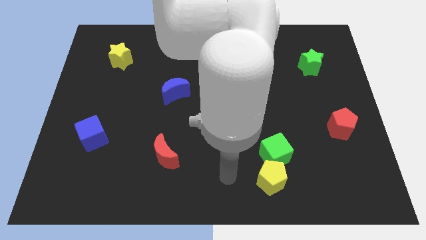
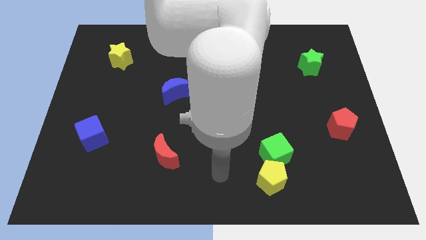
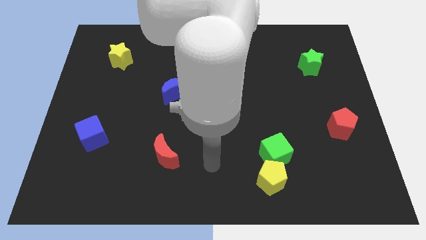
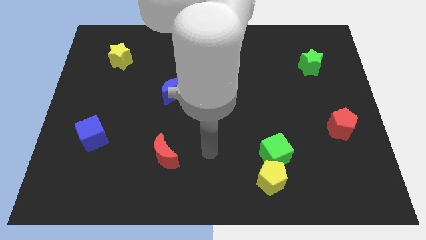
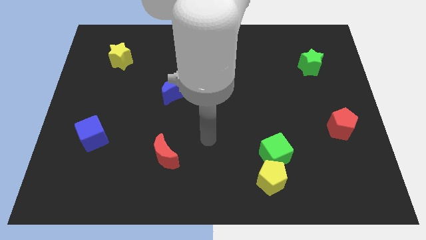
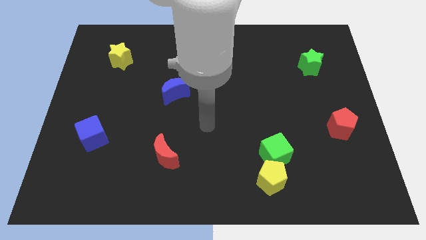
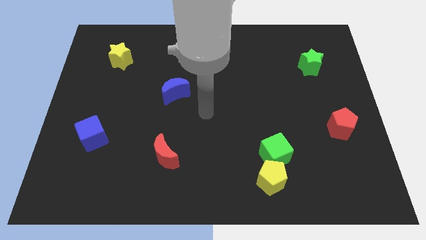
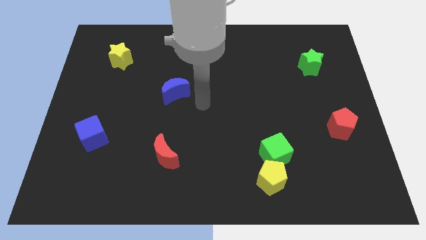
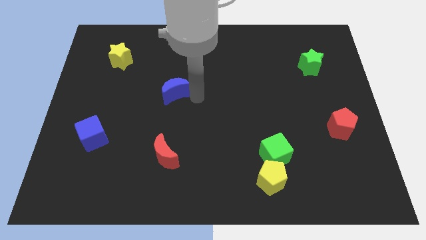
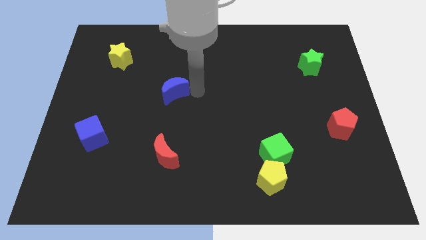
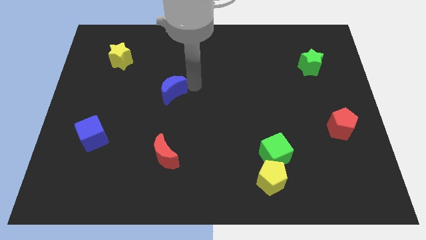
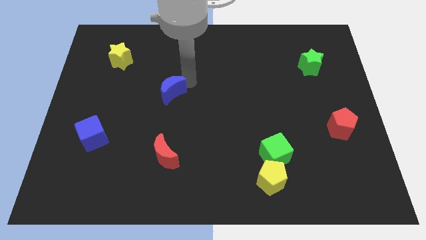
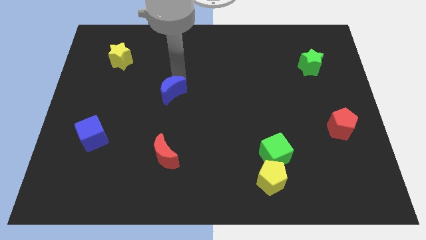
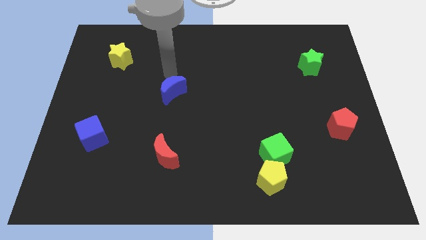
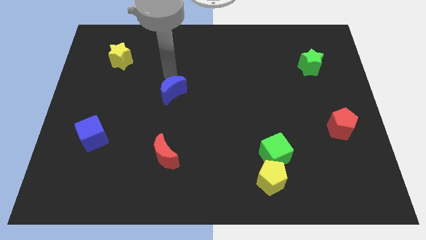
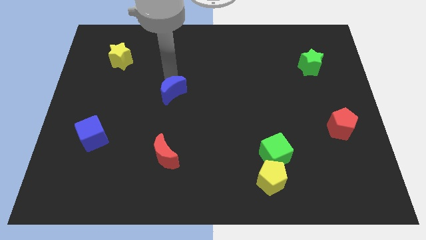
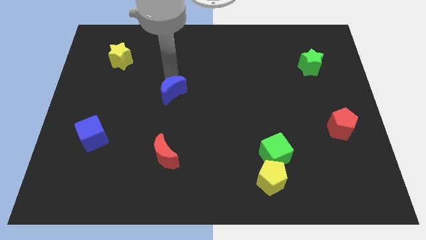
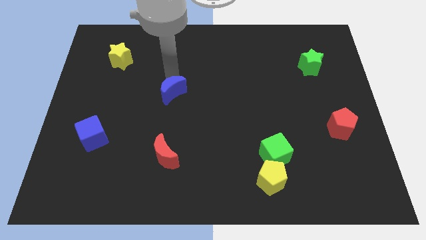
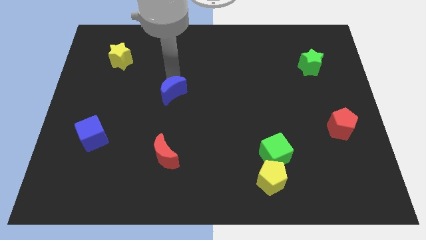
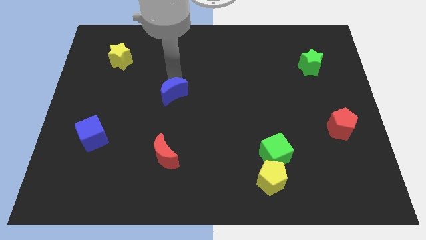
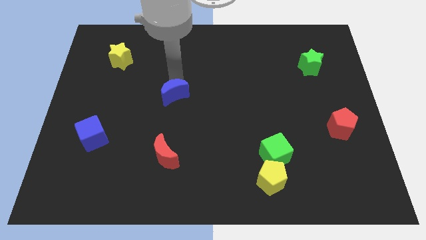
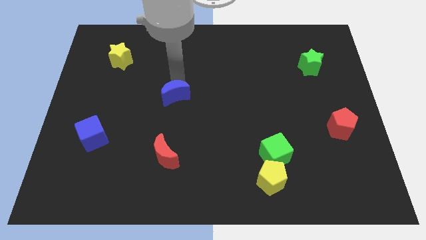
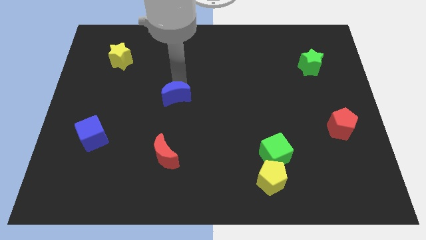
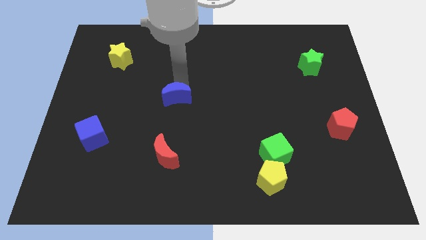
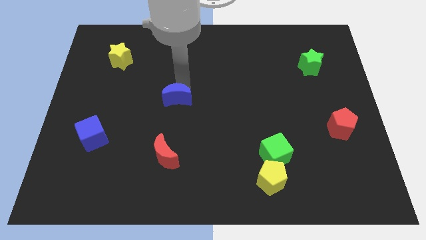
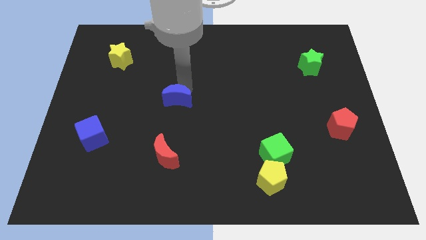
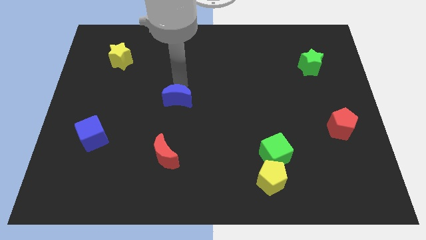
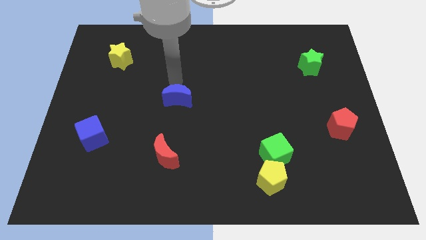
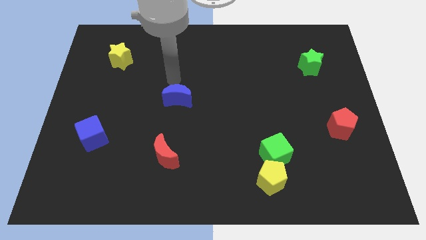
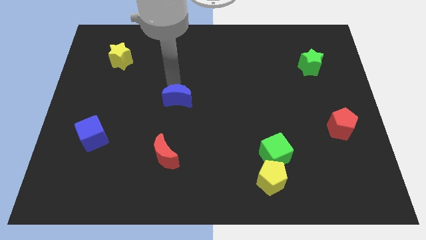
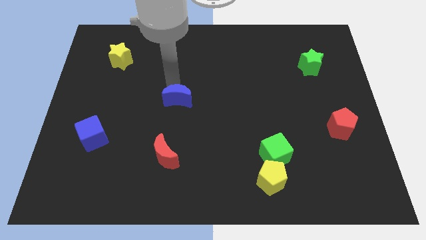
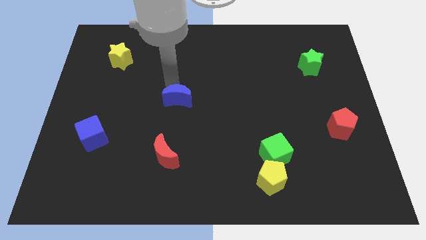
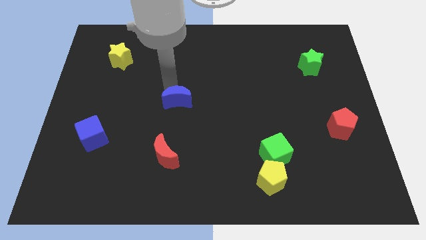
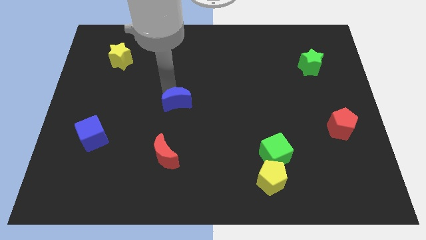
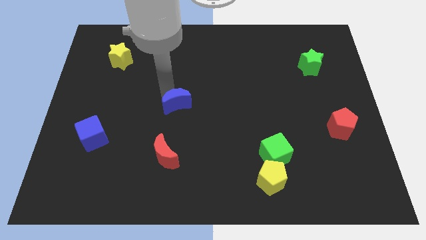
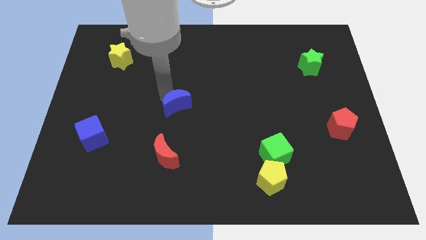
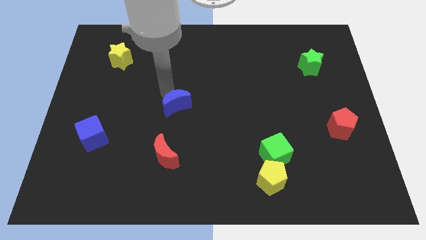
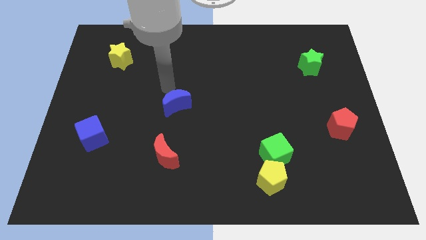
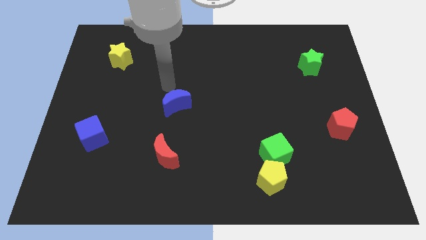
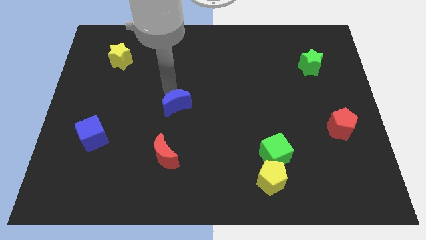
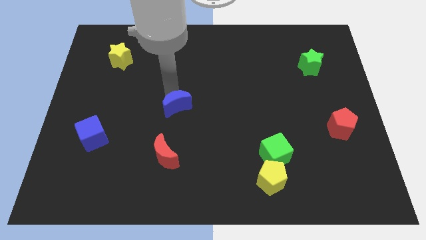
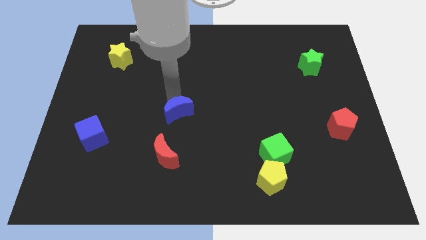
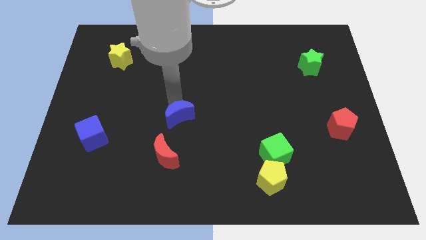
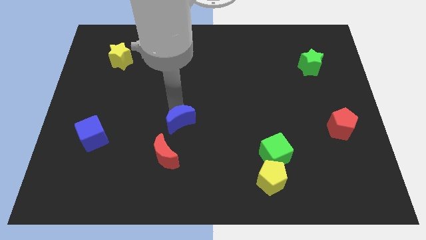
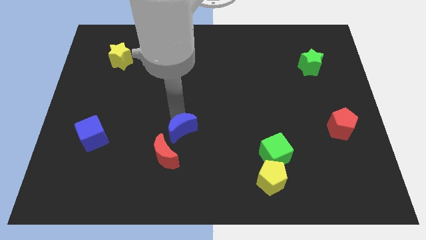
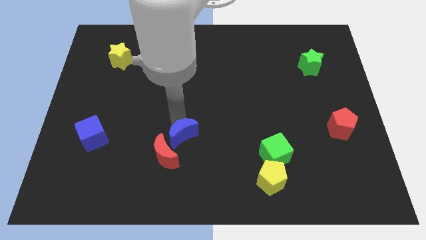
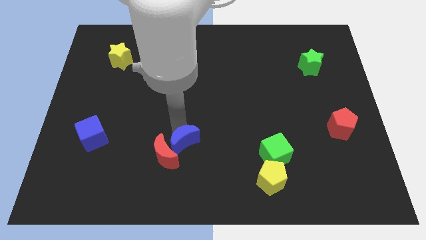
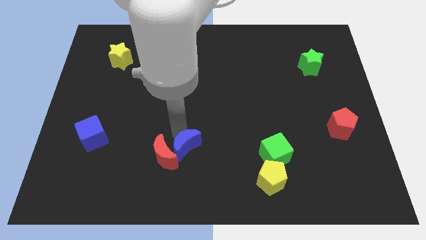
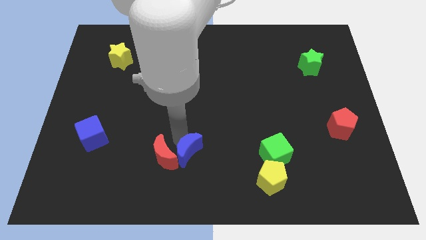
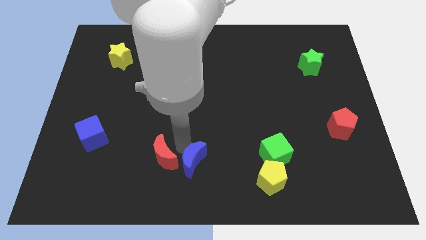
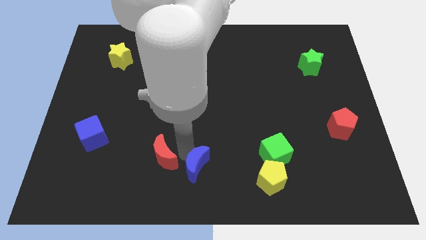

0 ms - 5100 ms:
push the blue moon left of the yellow pentagon

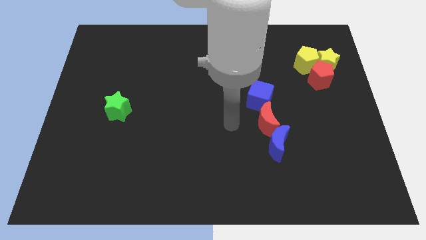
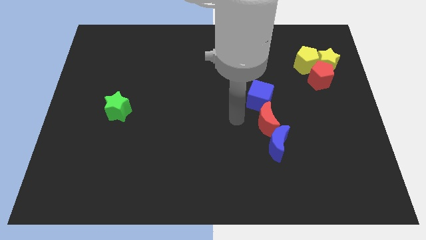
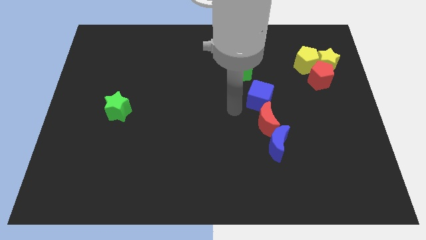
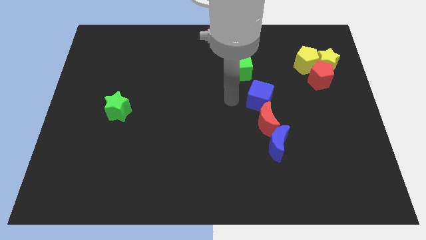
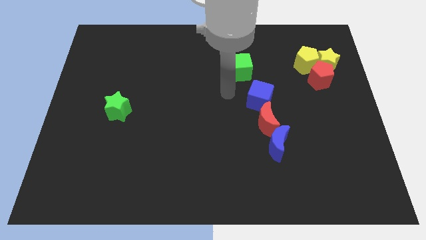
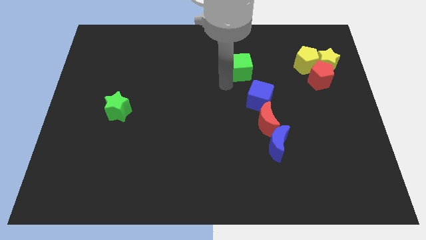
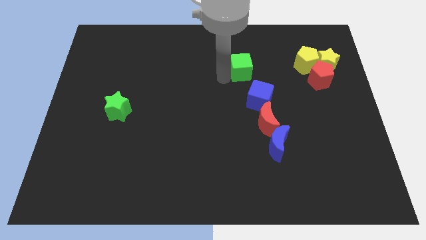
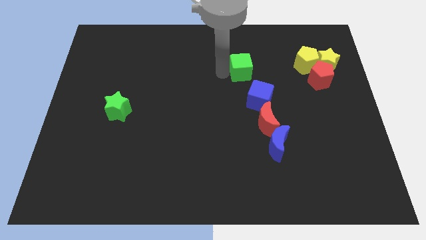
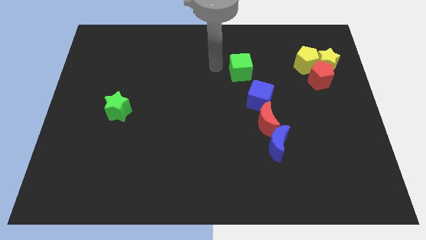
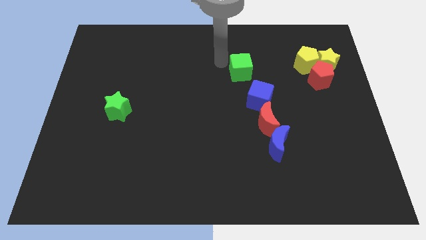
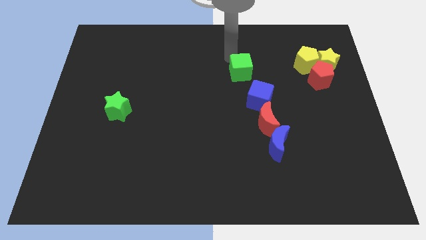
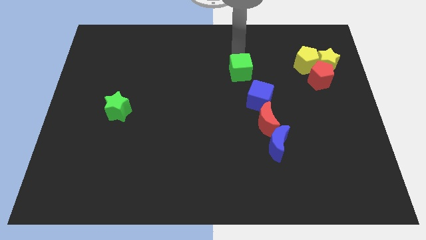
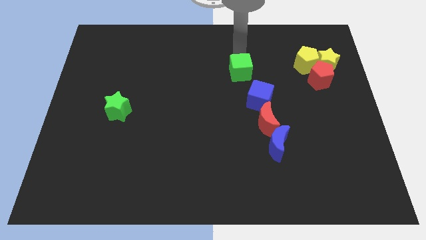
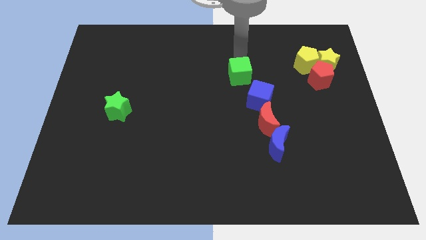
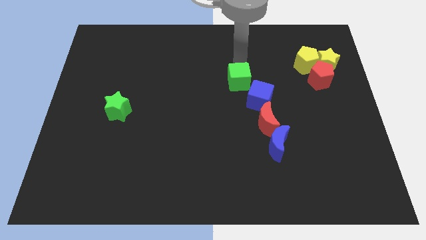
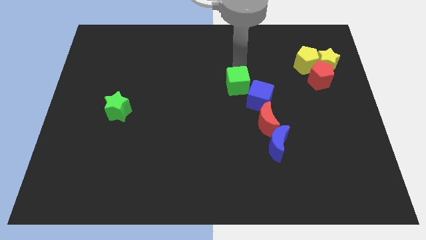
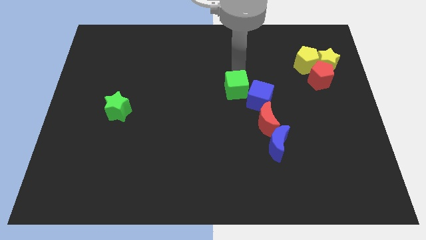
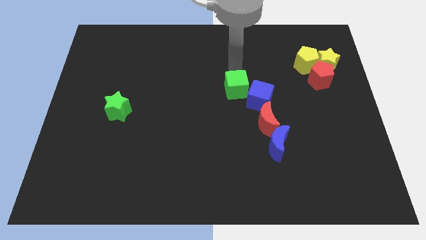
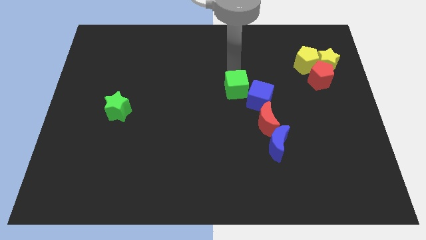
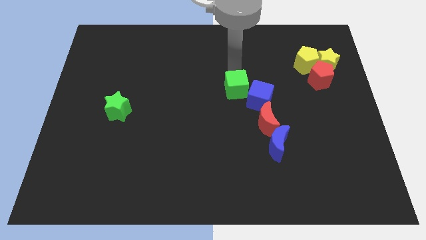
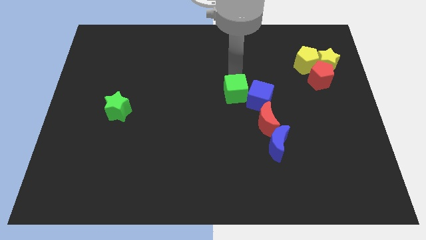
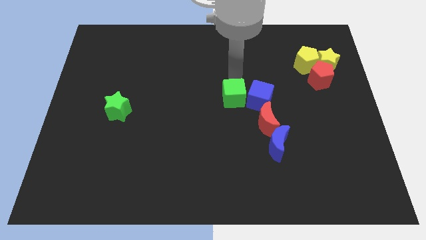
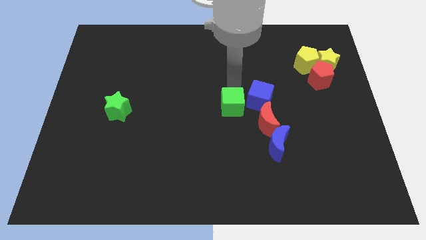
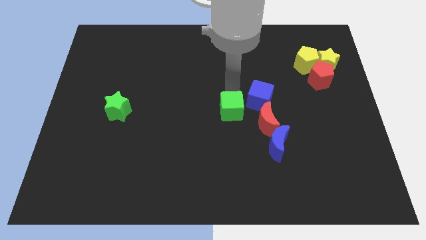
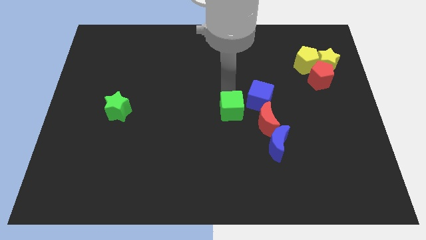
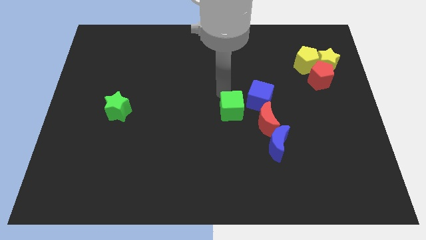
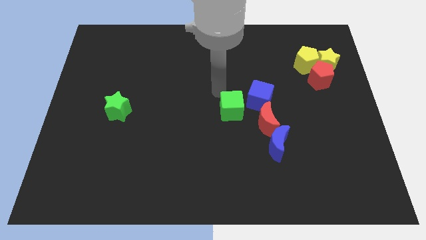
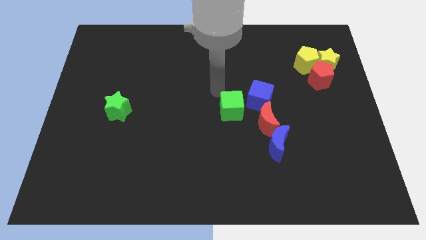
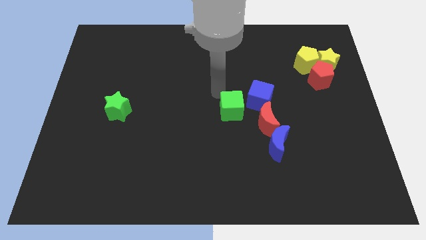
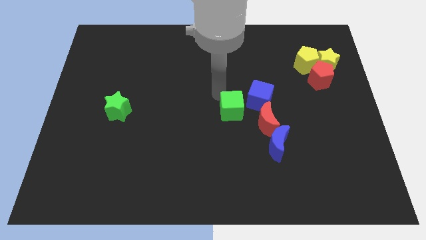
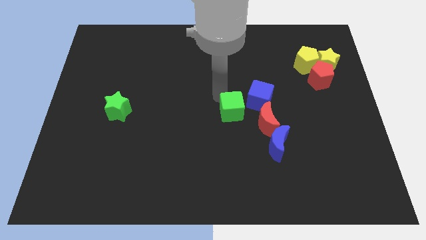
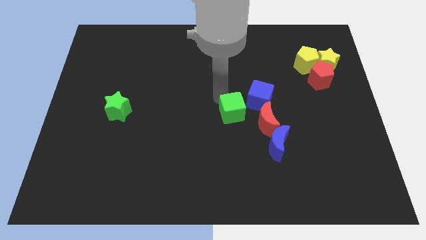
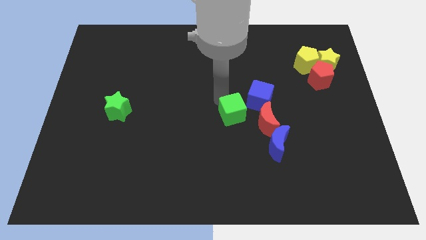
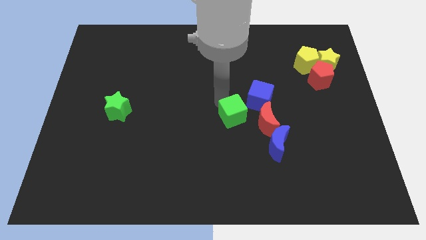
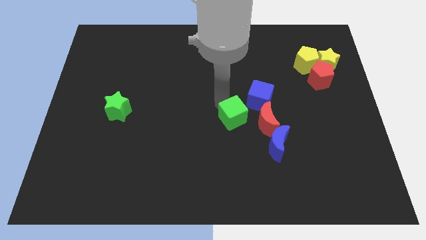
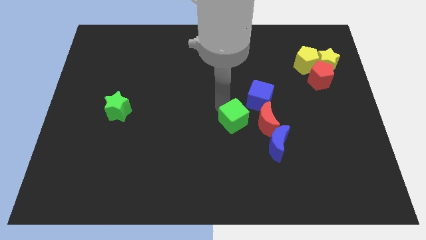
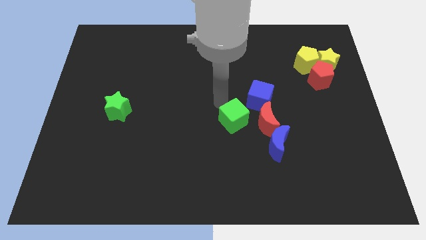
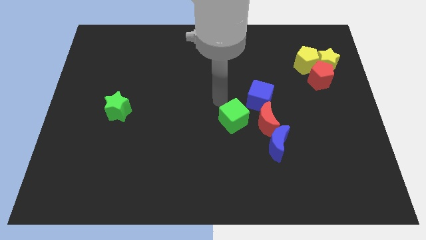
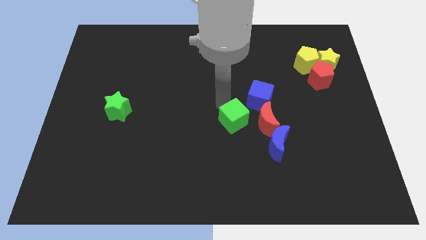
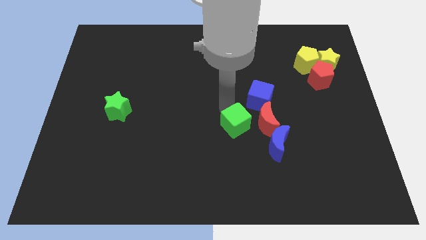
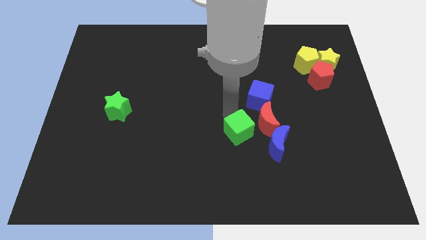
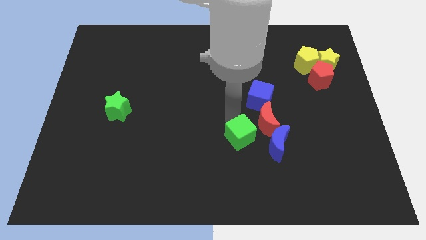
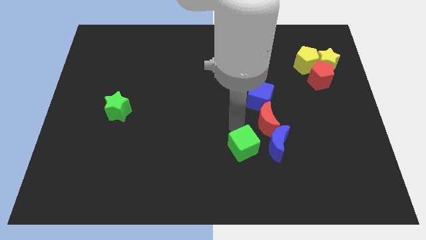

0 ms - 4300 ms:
slide the green cube to the bottom left side of the blue moon
